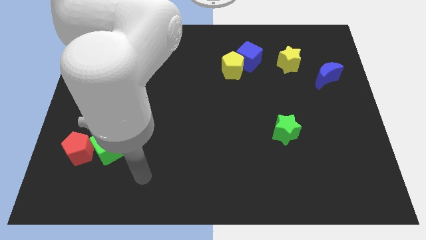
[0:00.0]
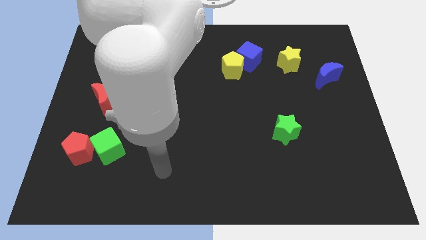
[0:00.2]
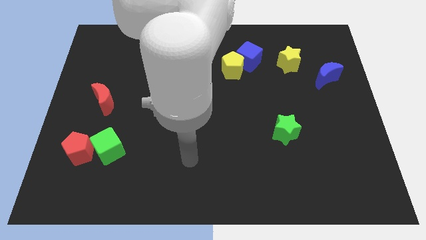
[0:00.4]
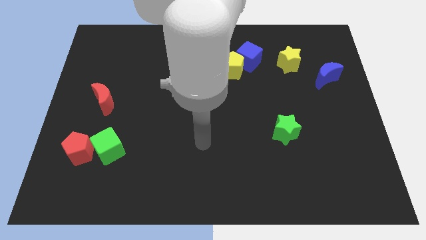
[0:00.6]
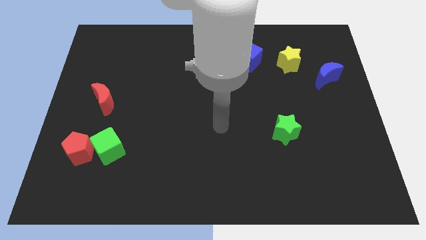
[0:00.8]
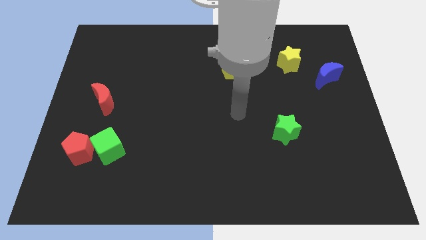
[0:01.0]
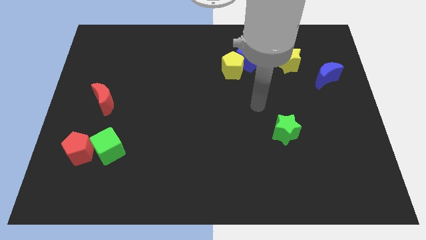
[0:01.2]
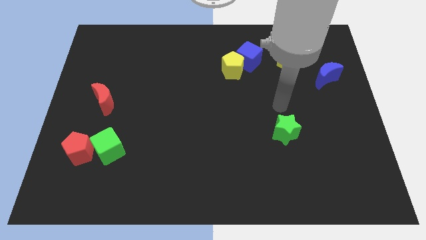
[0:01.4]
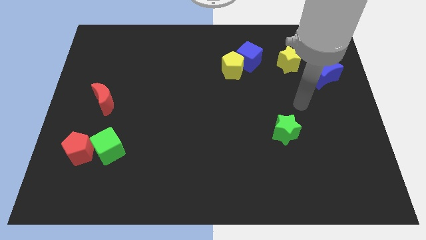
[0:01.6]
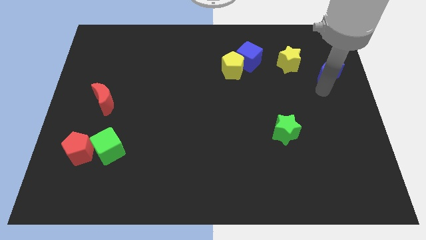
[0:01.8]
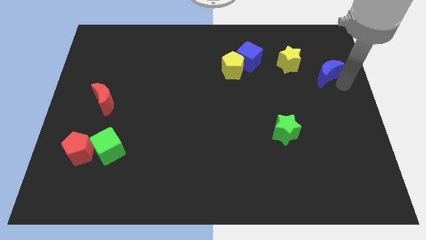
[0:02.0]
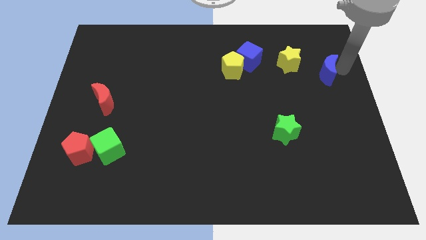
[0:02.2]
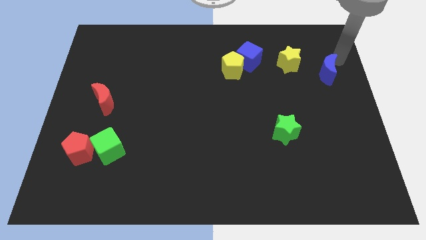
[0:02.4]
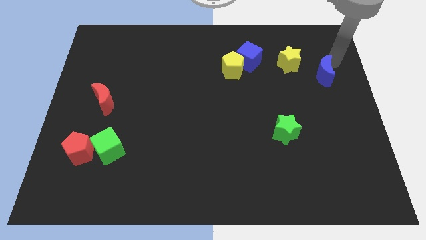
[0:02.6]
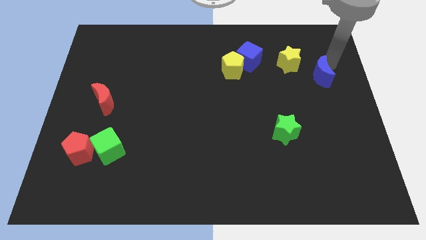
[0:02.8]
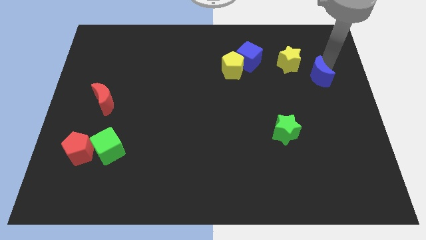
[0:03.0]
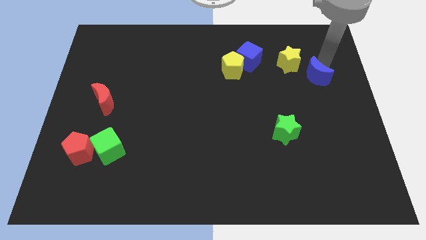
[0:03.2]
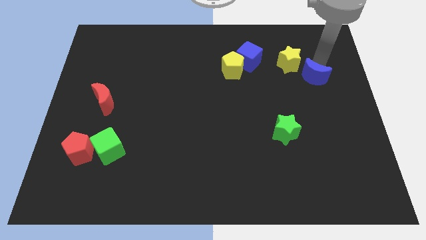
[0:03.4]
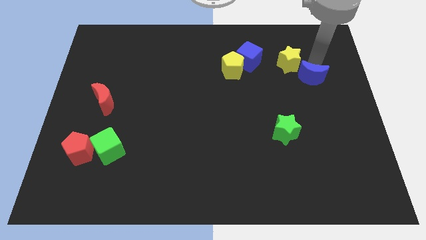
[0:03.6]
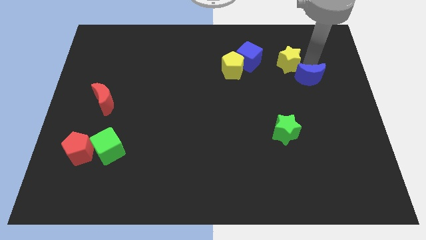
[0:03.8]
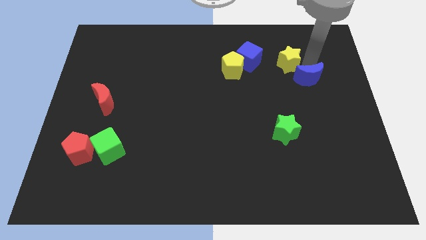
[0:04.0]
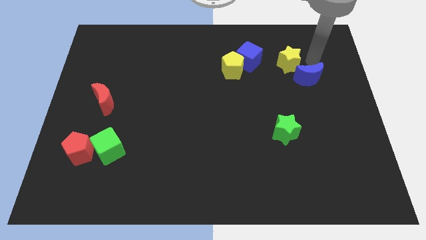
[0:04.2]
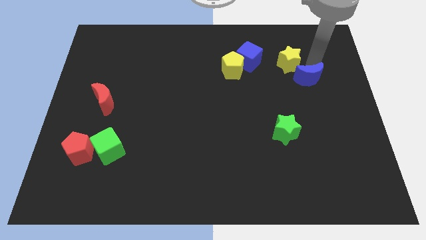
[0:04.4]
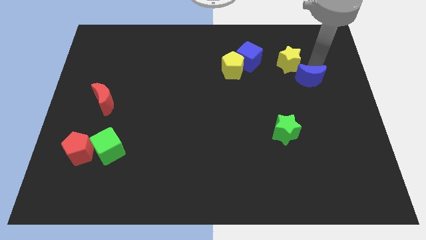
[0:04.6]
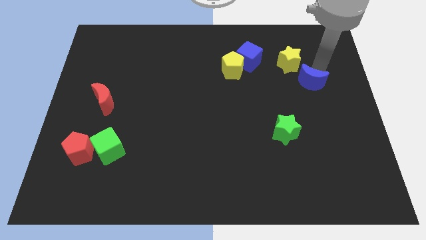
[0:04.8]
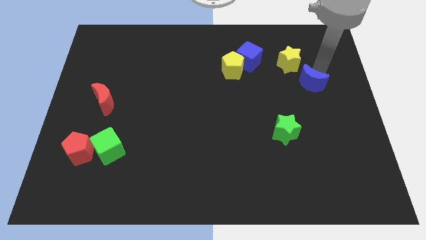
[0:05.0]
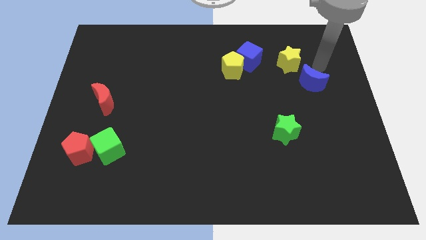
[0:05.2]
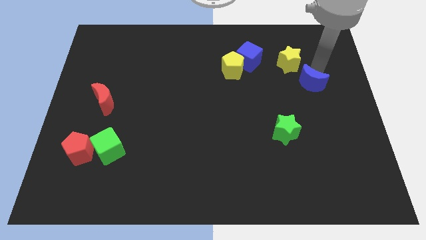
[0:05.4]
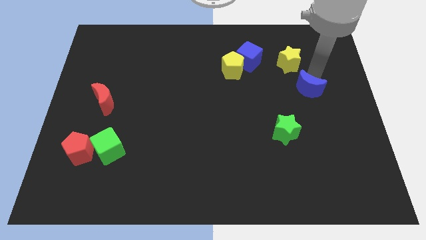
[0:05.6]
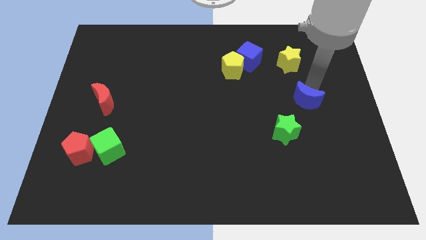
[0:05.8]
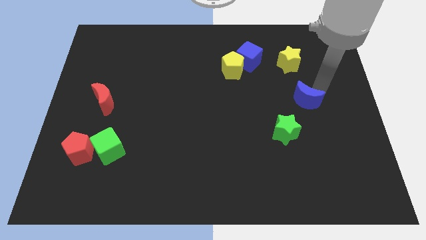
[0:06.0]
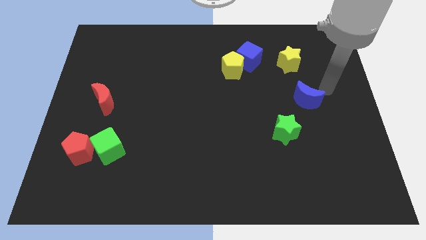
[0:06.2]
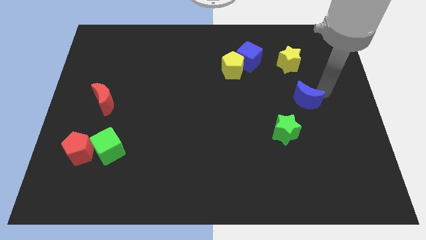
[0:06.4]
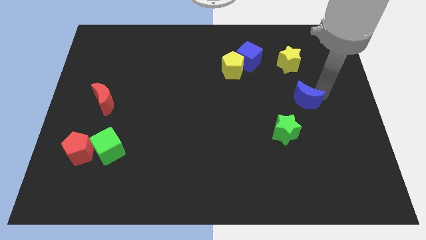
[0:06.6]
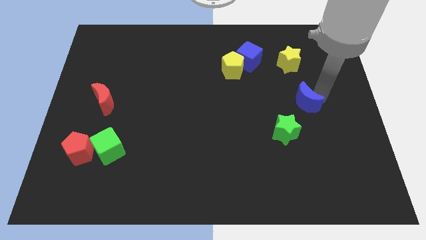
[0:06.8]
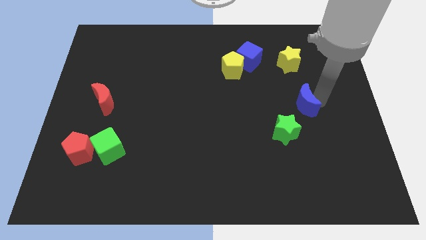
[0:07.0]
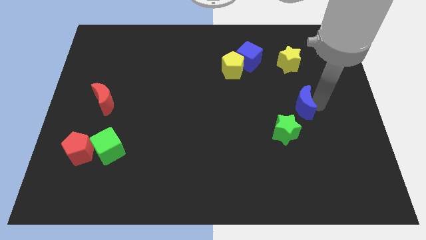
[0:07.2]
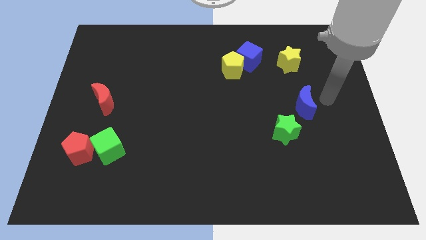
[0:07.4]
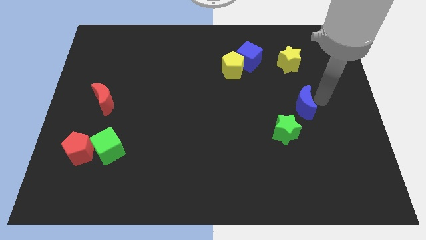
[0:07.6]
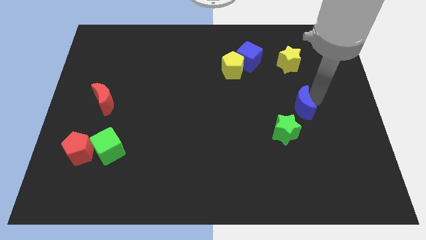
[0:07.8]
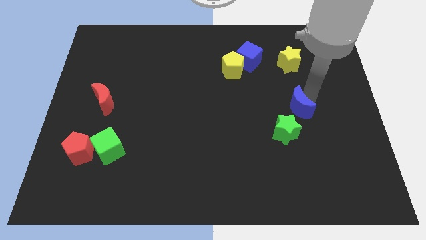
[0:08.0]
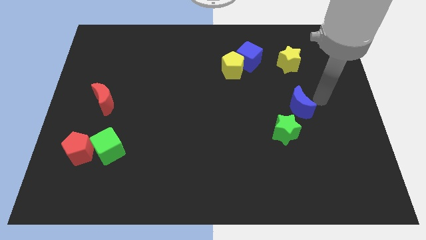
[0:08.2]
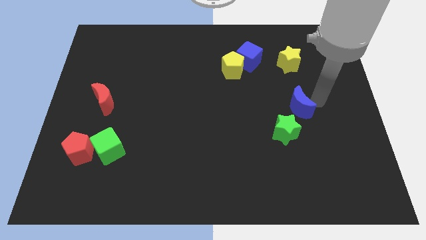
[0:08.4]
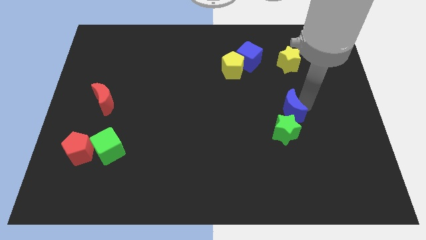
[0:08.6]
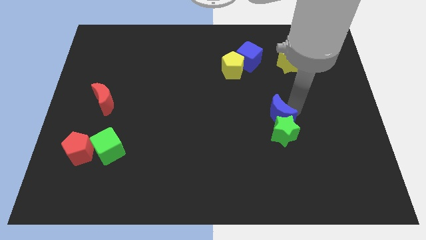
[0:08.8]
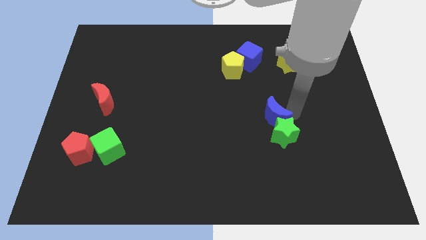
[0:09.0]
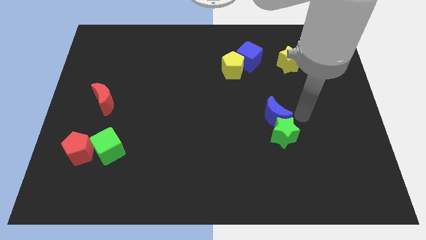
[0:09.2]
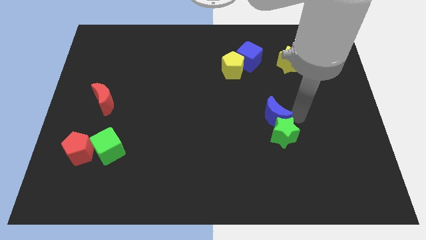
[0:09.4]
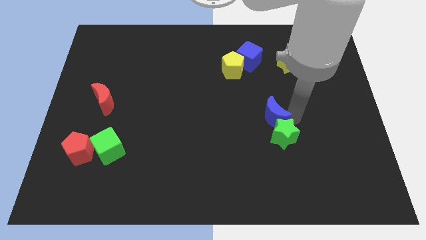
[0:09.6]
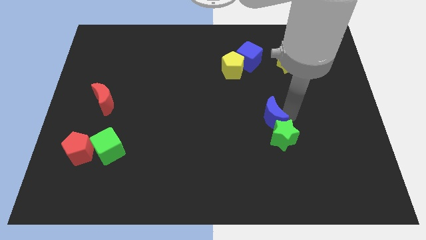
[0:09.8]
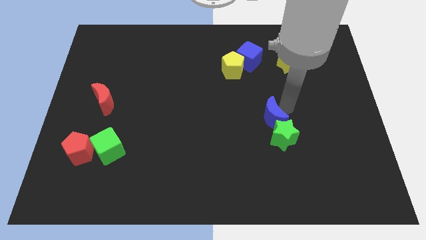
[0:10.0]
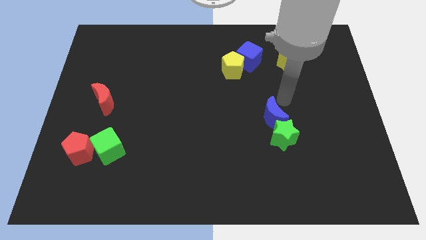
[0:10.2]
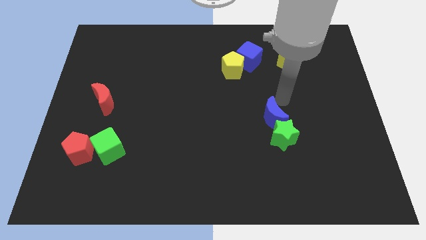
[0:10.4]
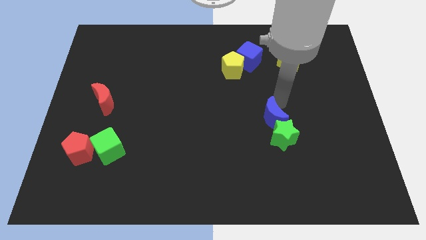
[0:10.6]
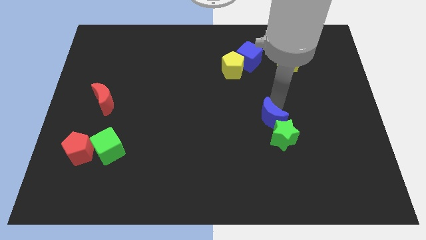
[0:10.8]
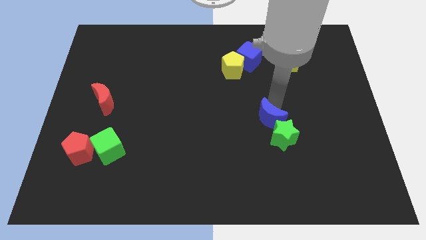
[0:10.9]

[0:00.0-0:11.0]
move the blue moon diagonally downwards and left

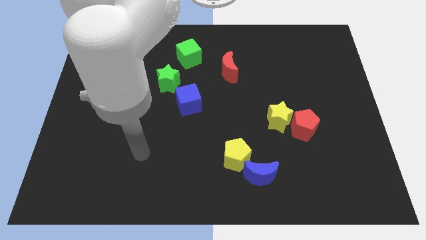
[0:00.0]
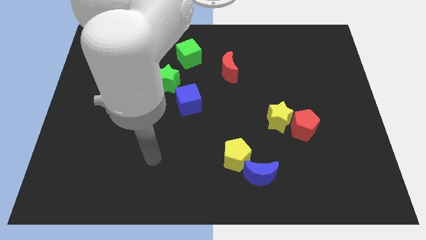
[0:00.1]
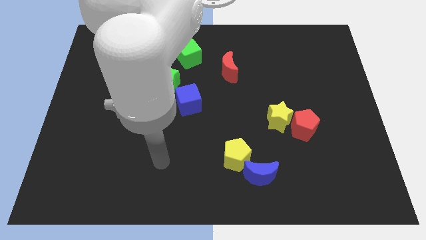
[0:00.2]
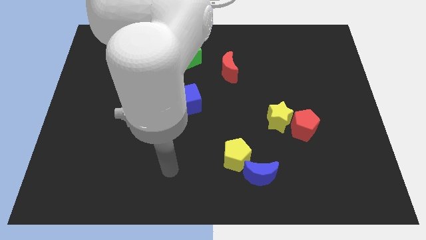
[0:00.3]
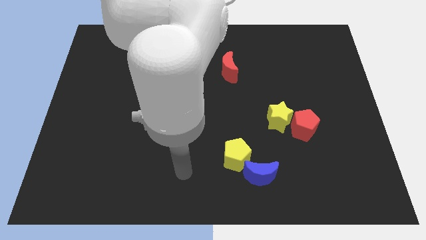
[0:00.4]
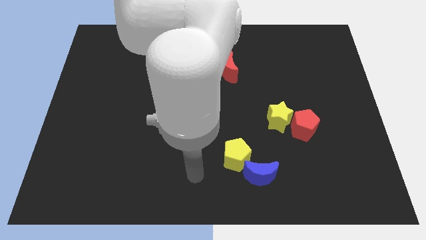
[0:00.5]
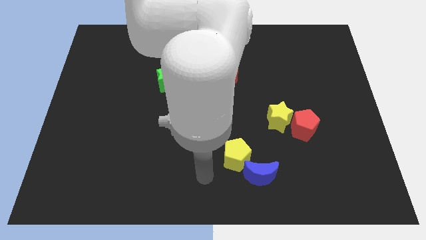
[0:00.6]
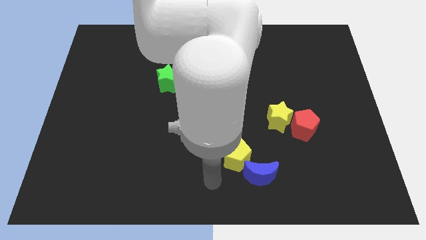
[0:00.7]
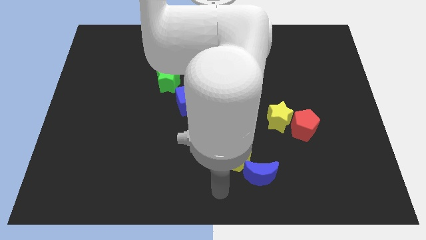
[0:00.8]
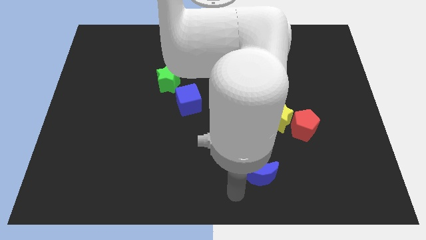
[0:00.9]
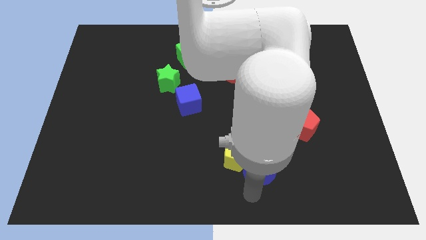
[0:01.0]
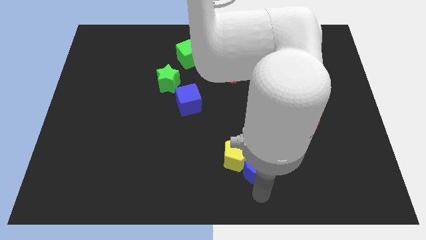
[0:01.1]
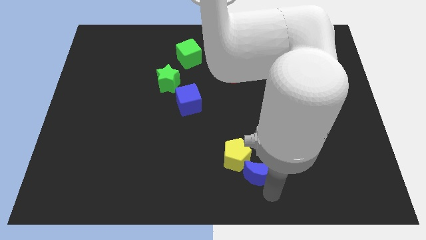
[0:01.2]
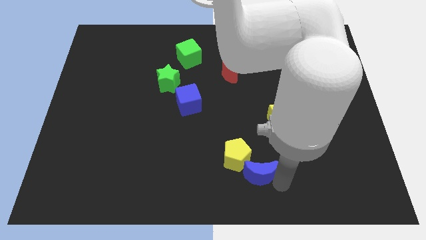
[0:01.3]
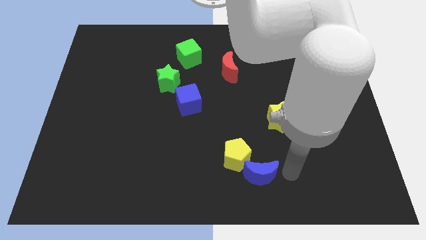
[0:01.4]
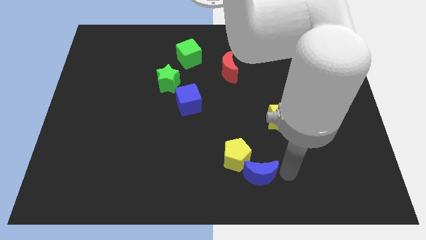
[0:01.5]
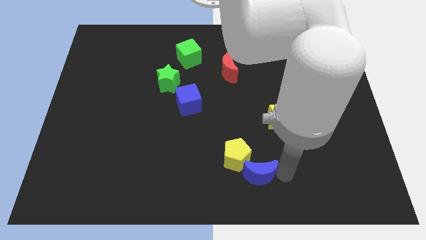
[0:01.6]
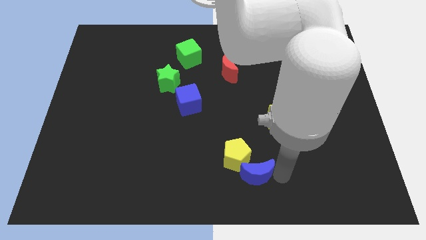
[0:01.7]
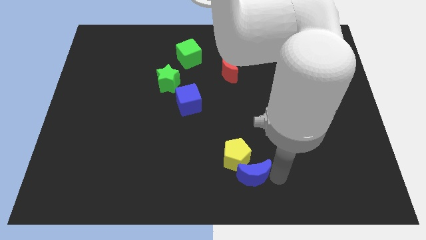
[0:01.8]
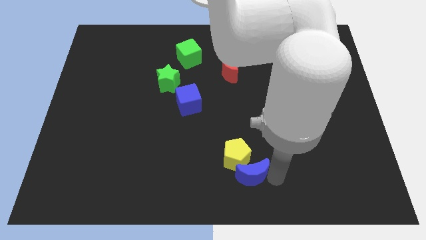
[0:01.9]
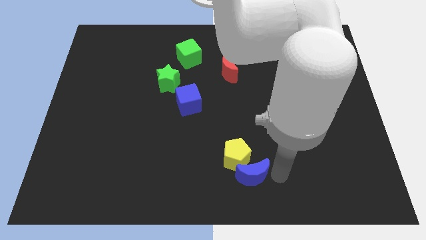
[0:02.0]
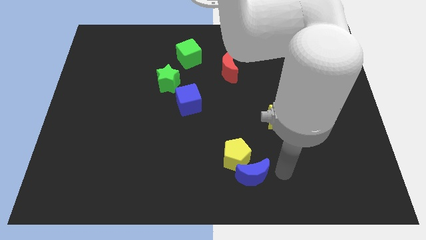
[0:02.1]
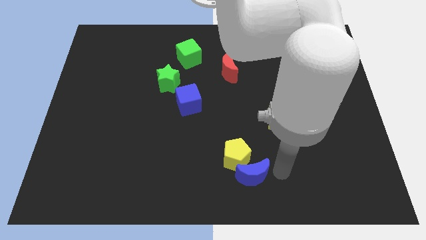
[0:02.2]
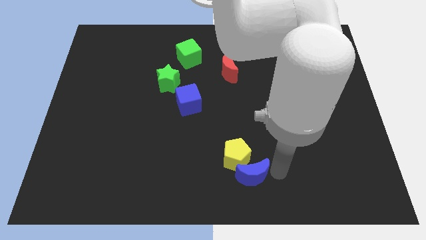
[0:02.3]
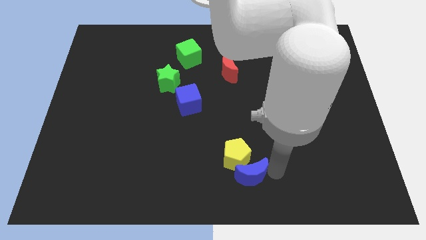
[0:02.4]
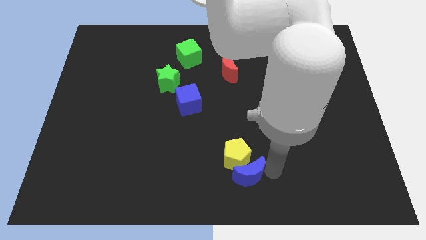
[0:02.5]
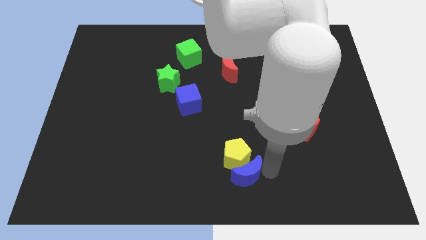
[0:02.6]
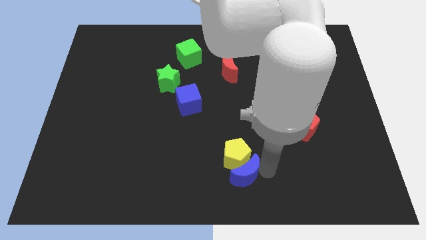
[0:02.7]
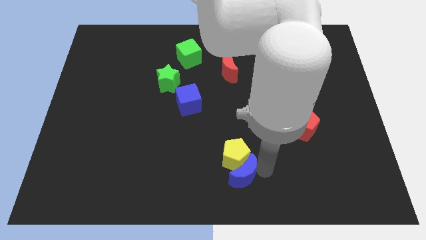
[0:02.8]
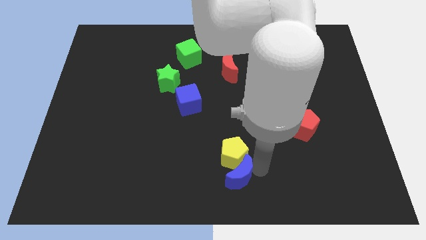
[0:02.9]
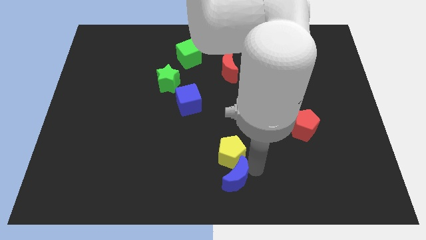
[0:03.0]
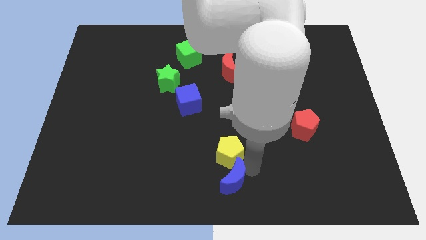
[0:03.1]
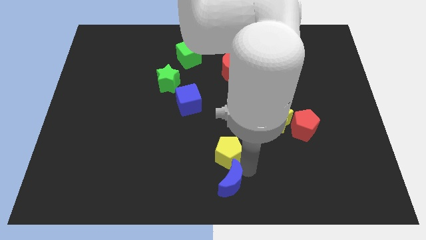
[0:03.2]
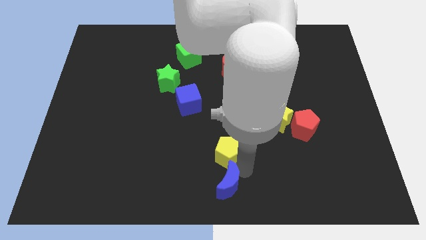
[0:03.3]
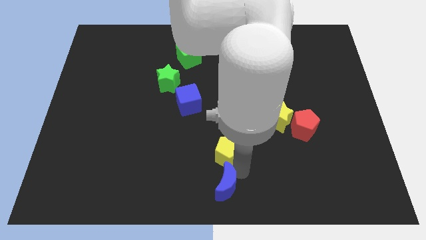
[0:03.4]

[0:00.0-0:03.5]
slightly move the blue moon left
